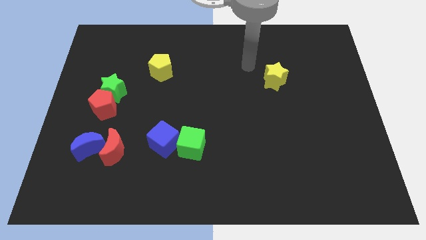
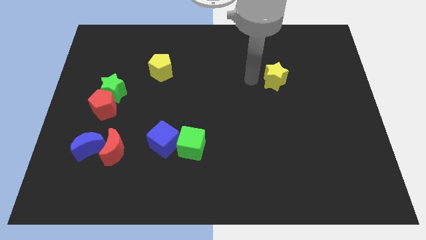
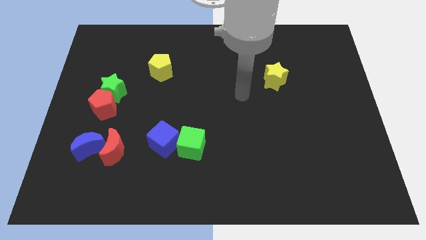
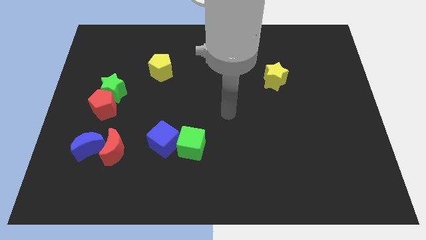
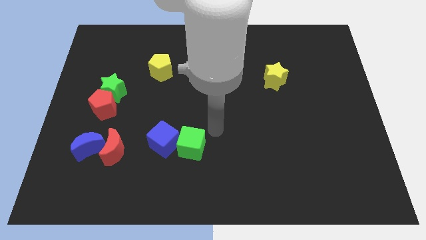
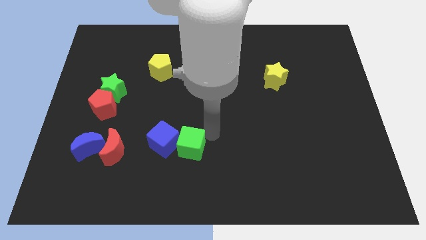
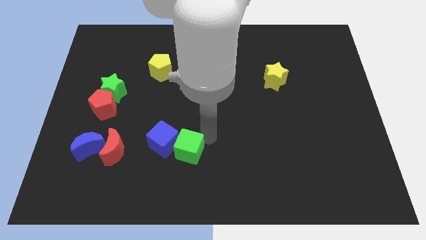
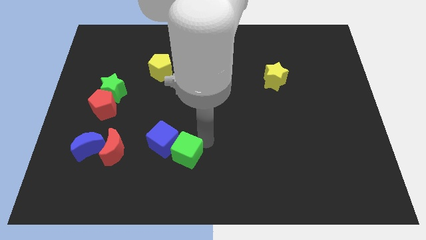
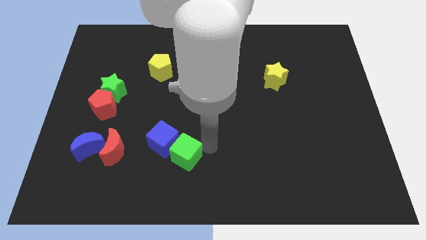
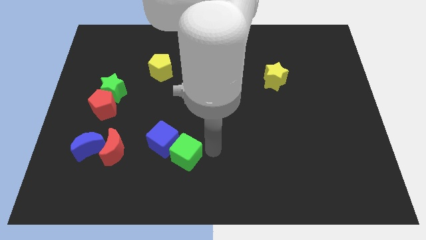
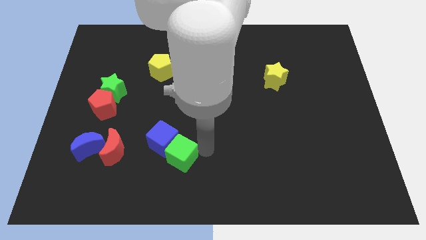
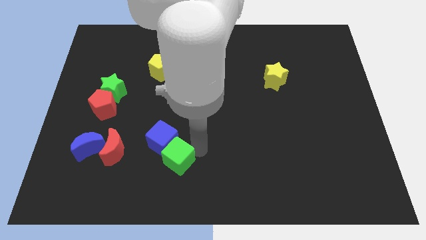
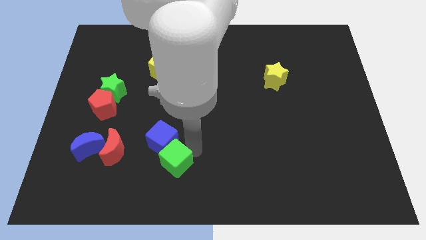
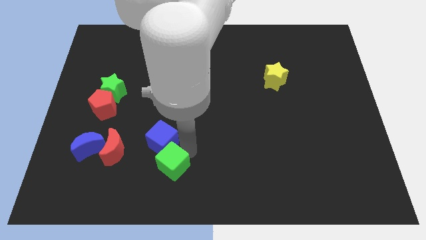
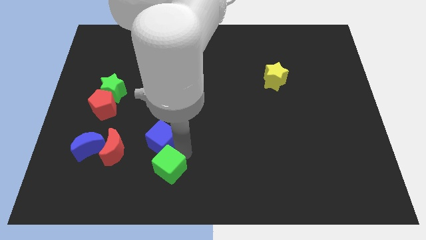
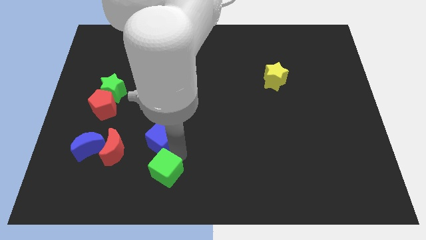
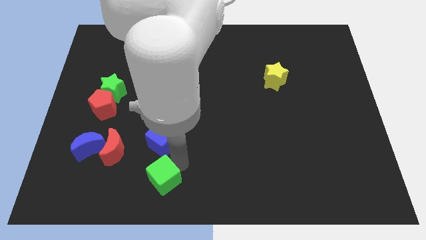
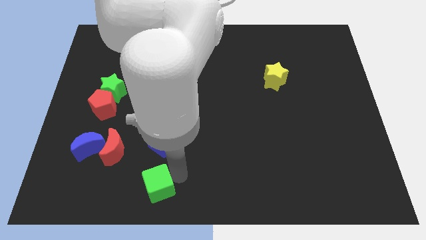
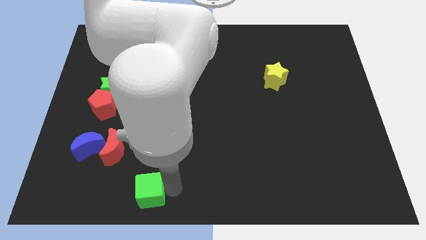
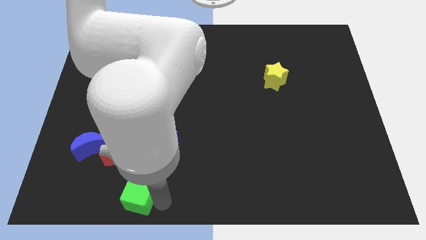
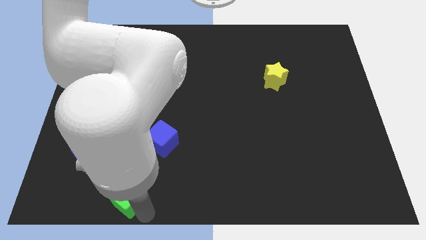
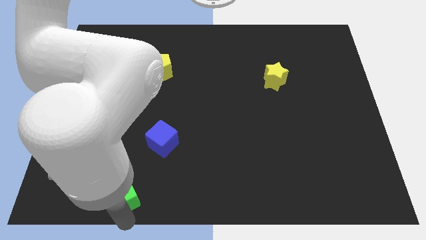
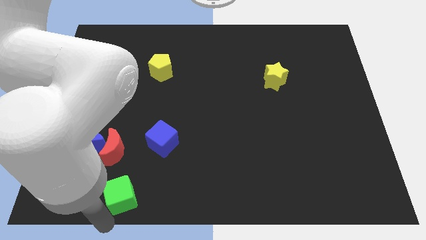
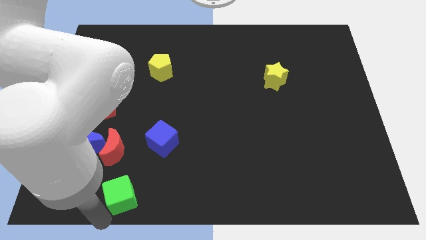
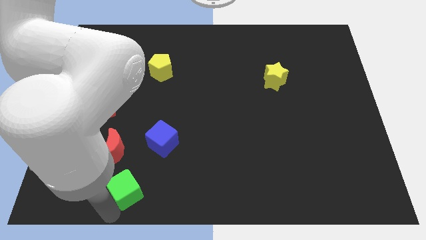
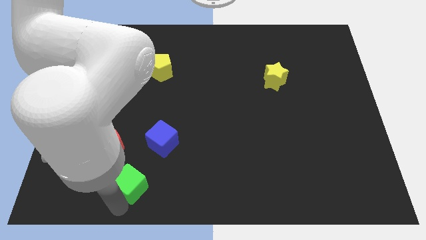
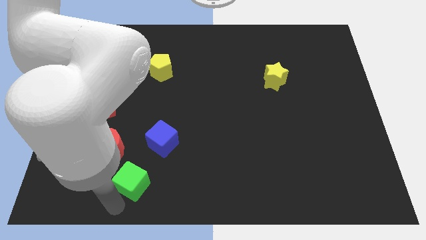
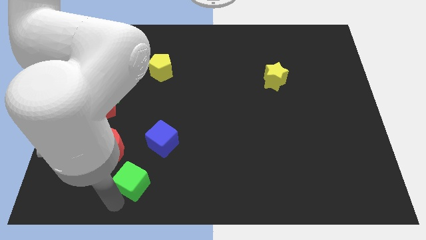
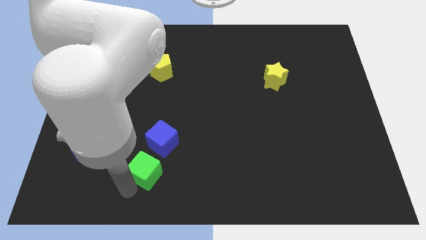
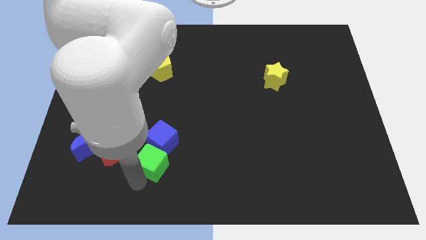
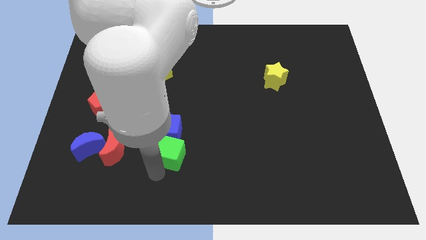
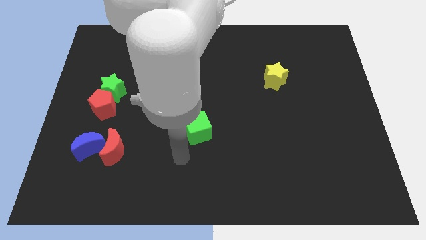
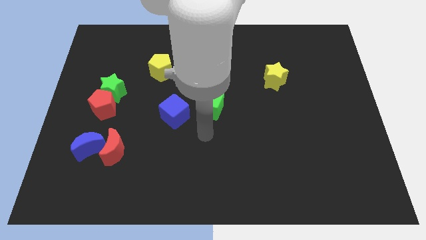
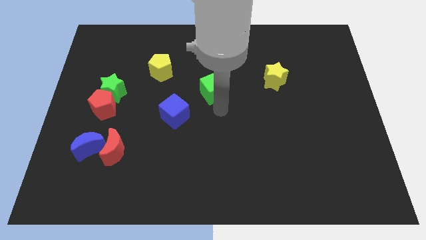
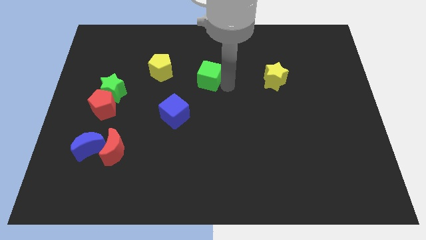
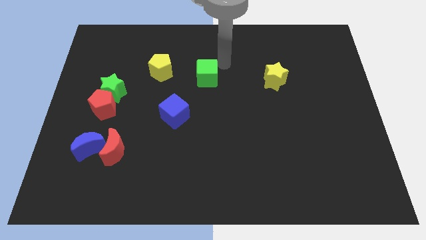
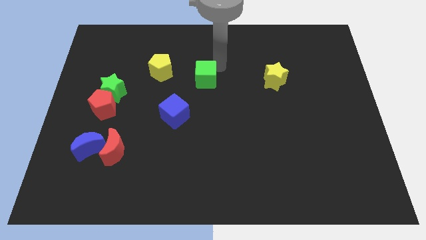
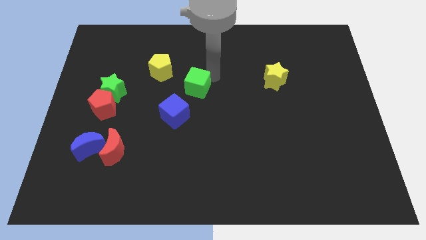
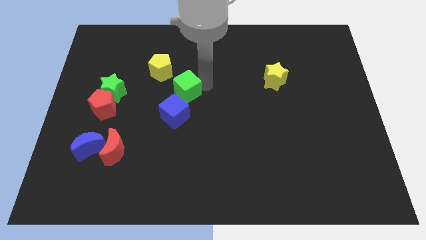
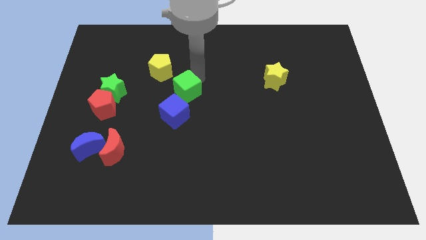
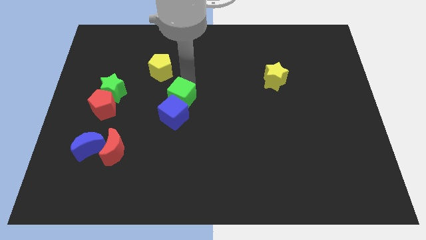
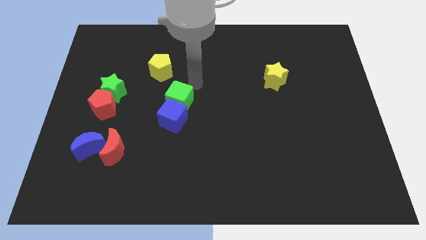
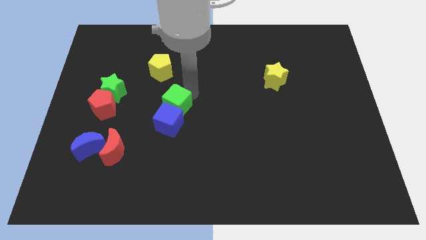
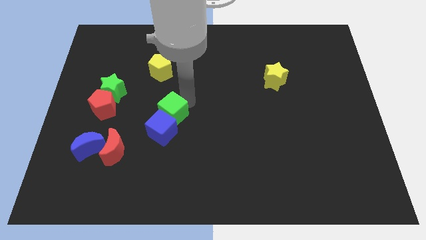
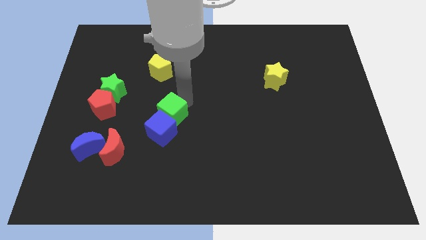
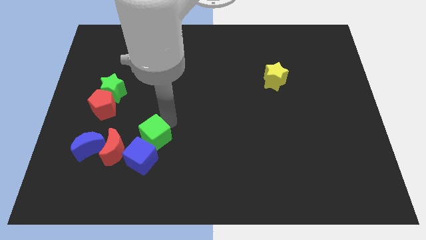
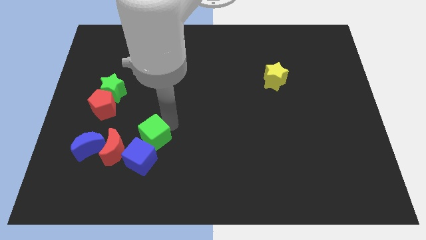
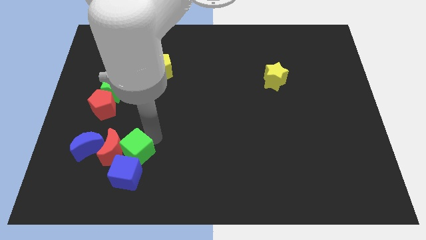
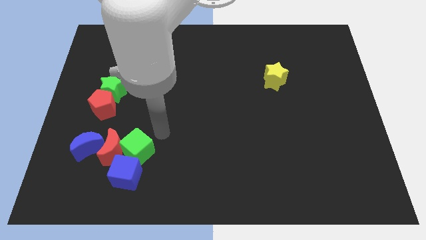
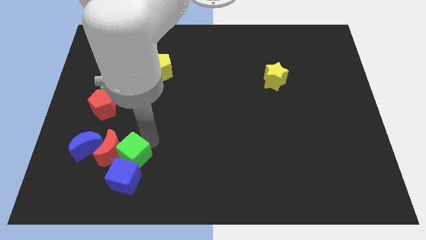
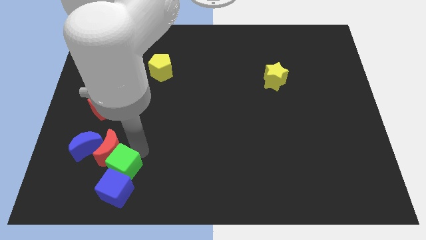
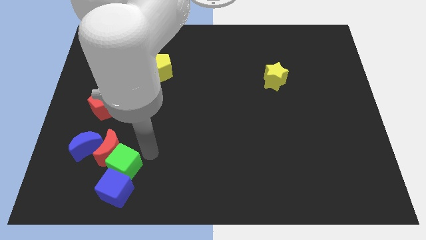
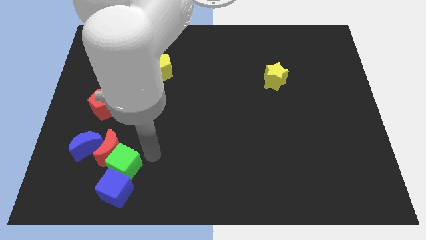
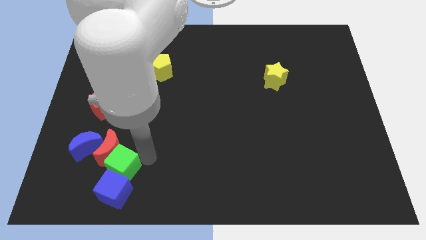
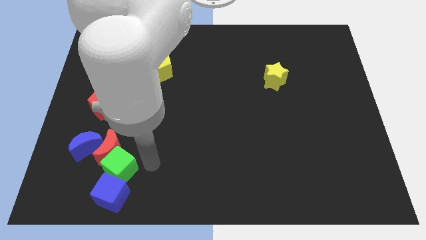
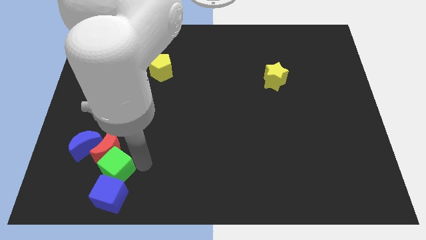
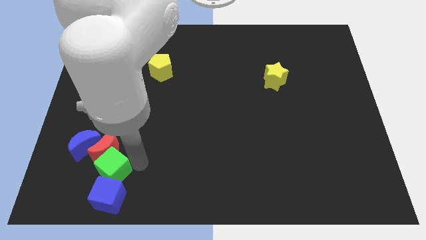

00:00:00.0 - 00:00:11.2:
push the green cube to the bottom left side of the red moon
